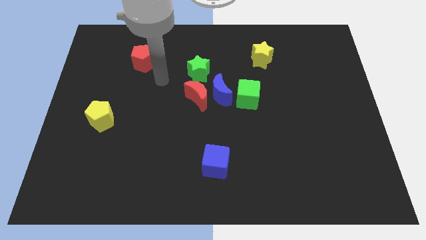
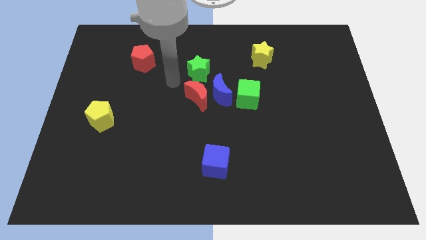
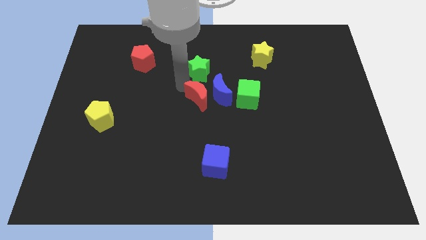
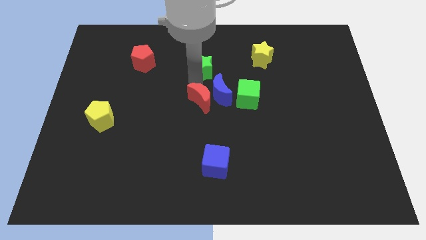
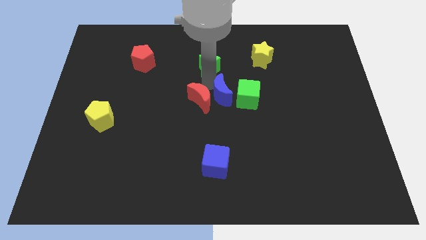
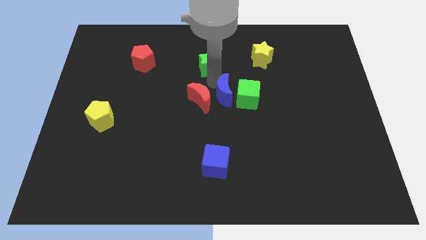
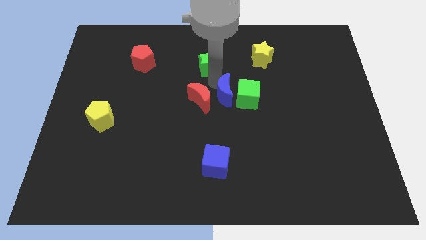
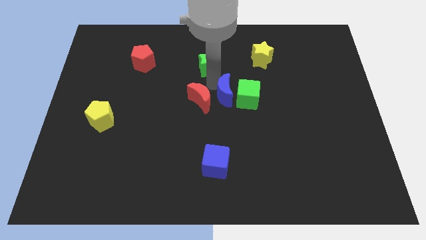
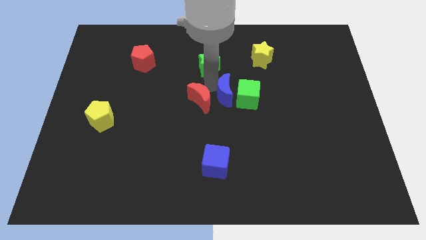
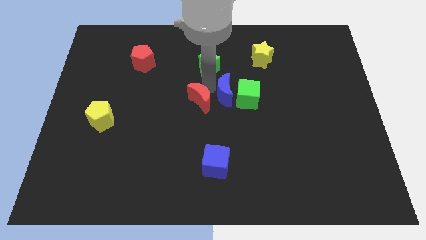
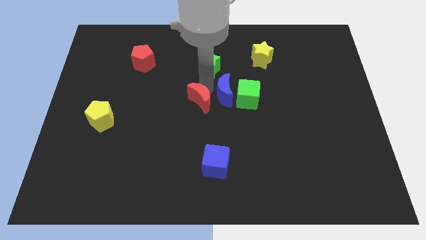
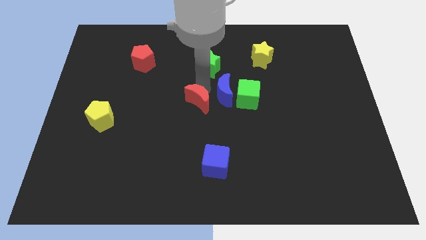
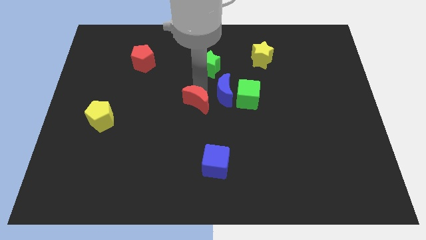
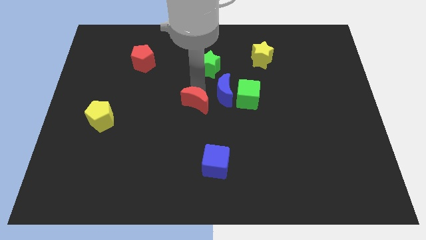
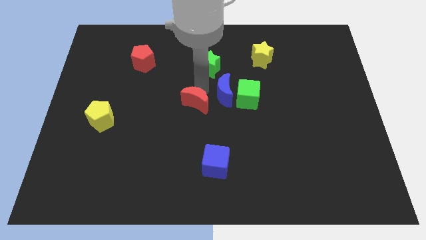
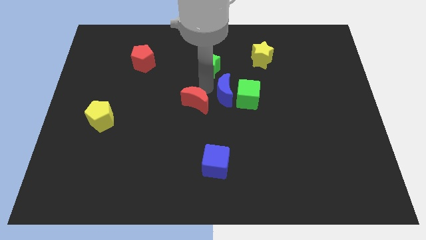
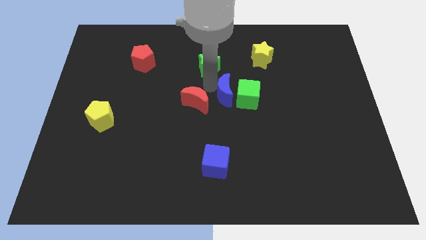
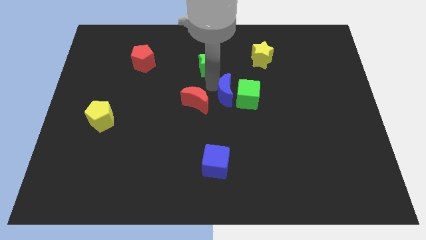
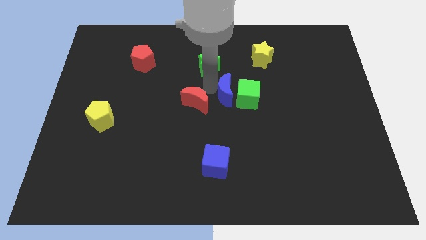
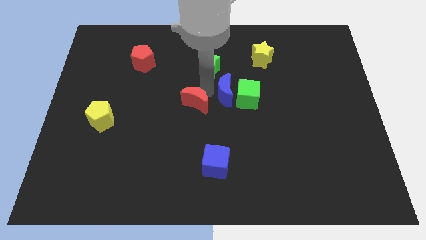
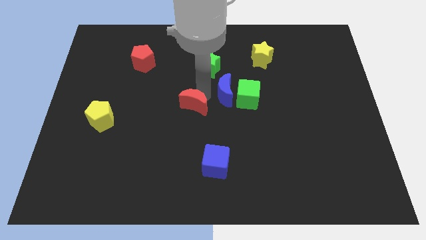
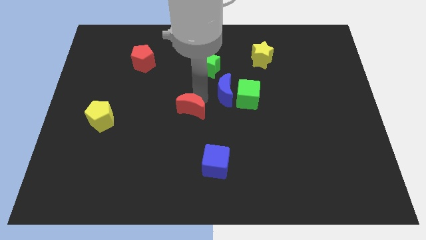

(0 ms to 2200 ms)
pull the red moon apart from the blue moon and green star

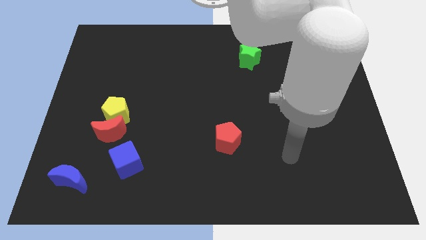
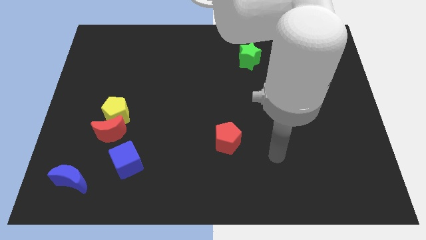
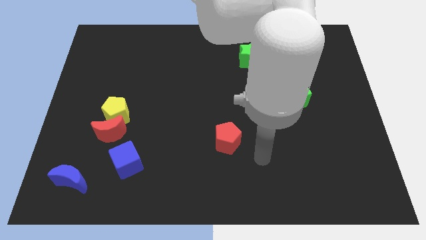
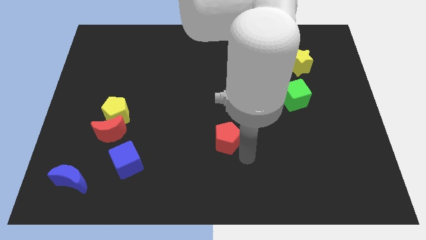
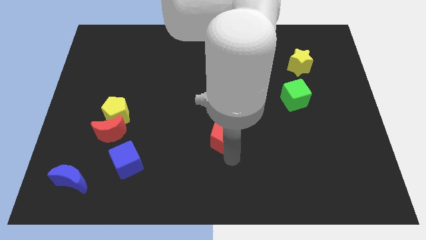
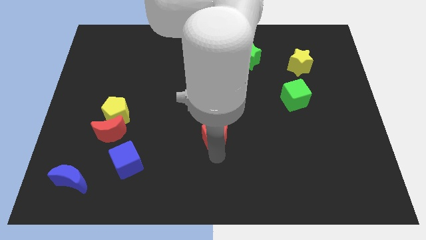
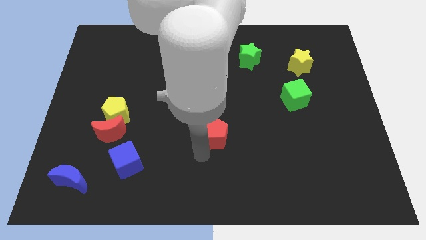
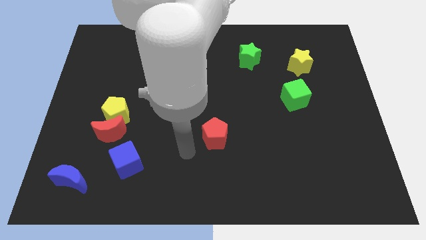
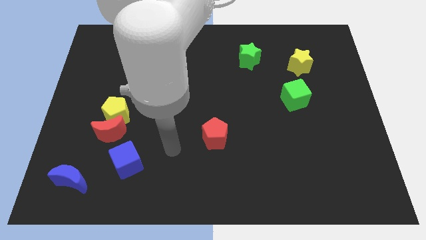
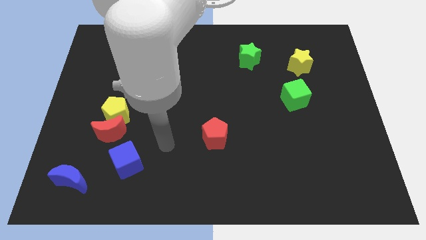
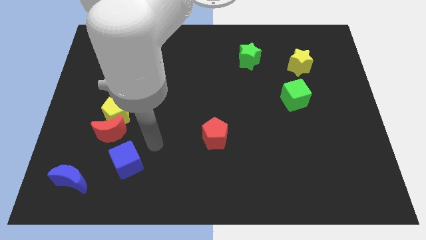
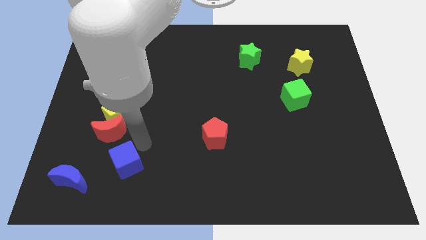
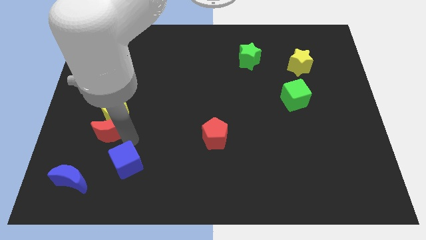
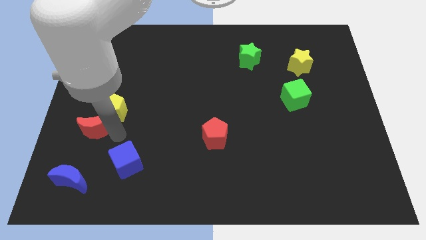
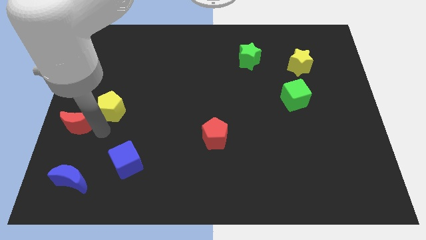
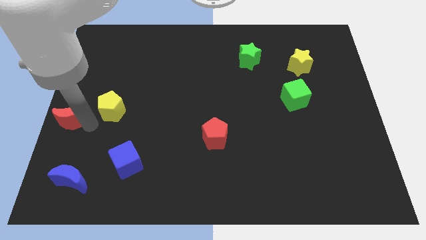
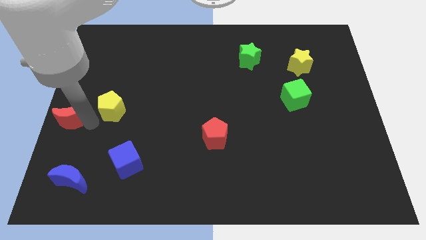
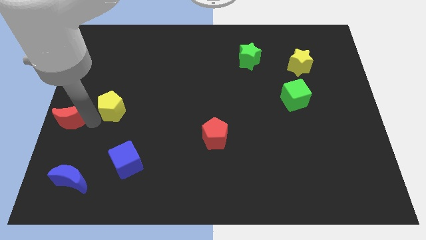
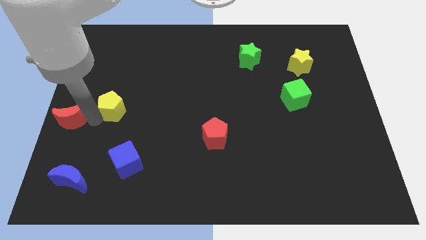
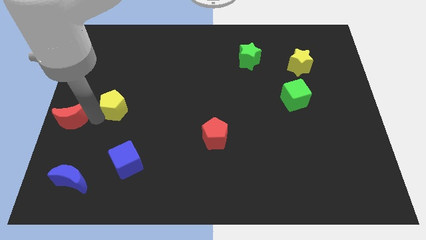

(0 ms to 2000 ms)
move the yellow pentagon away from the red moon

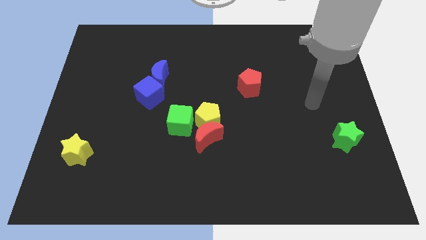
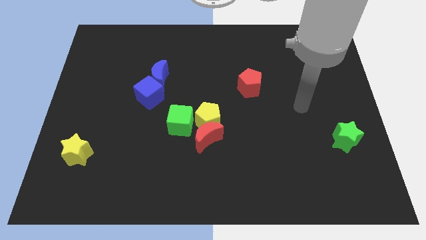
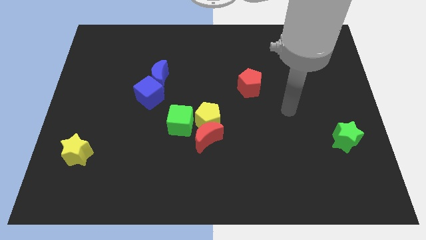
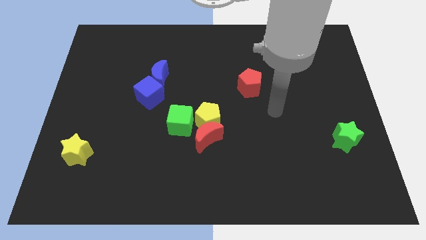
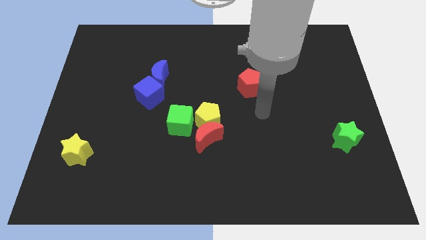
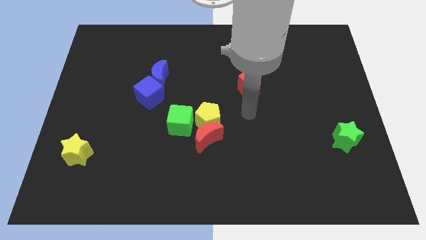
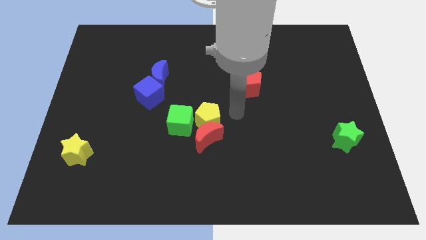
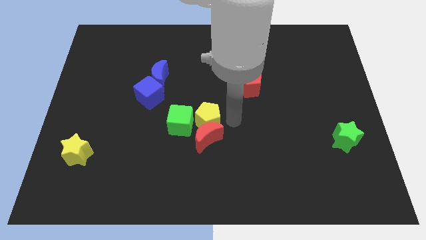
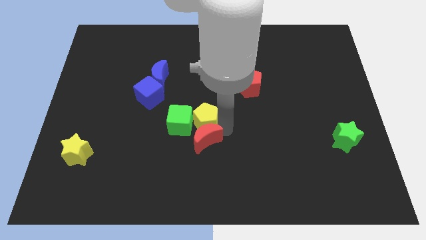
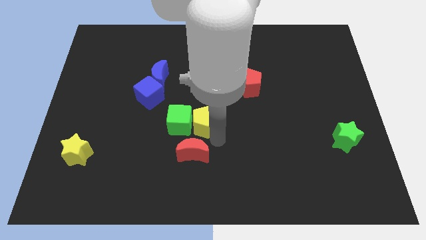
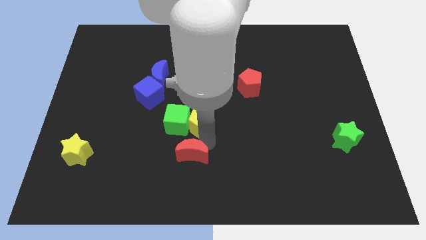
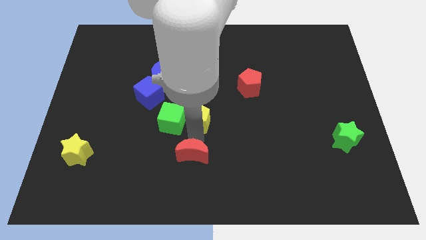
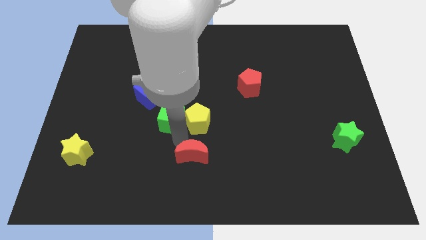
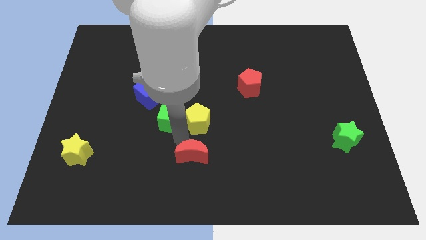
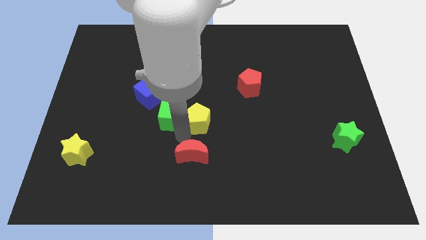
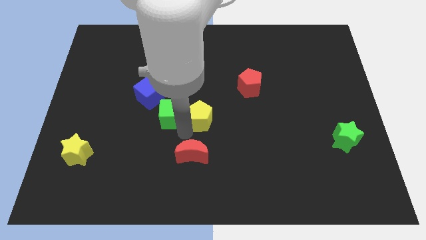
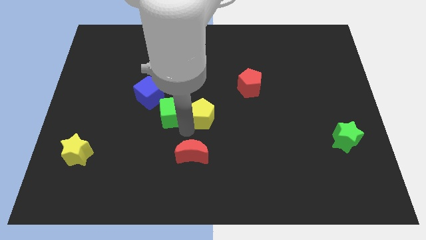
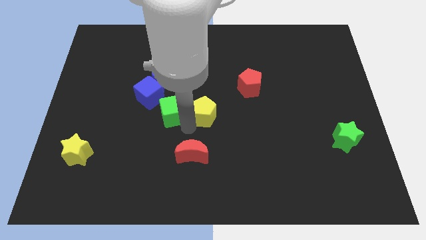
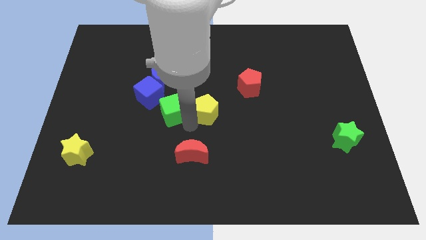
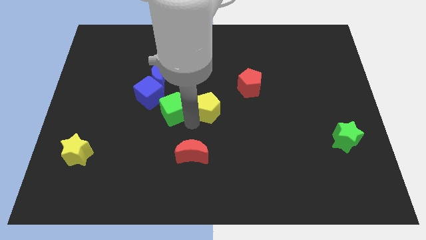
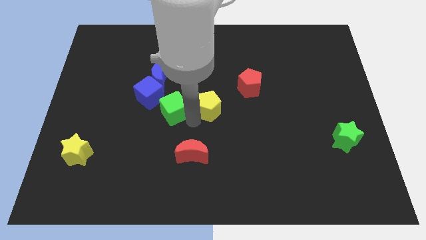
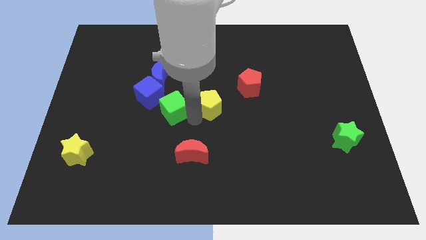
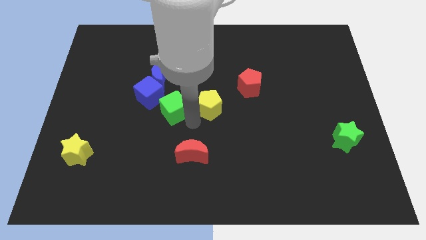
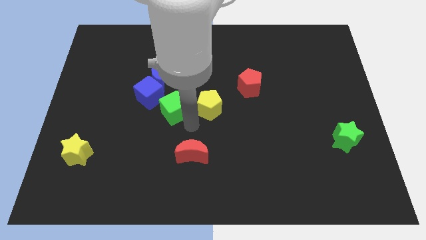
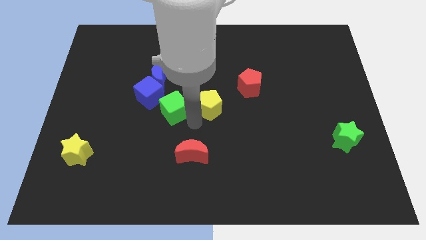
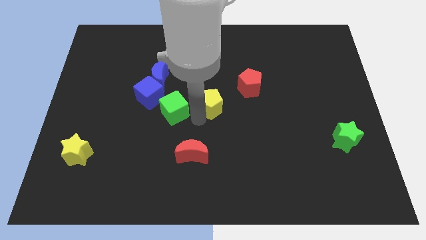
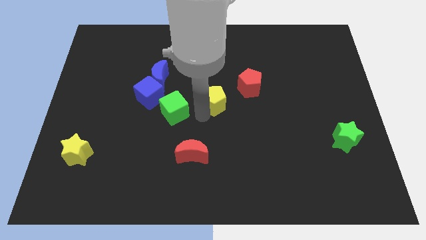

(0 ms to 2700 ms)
pull the yellow pentagon apart from the red moon and green cube

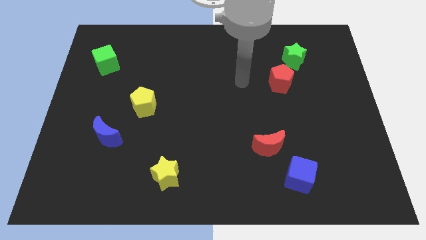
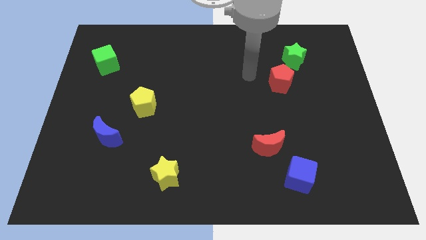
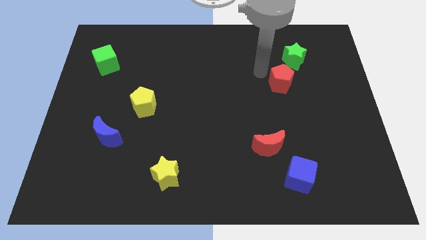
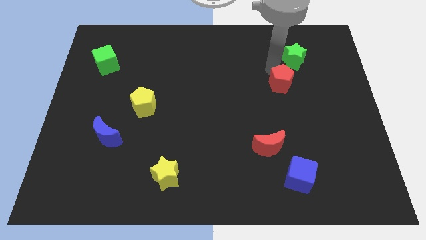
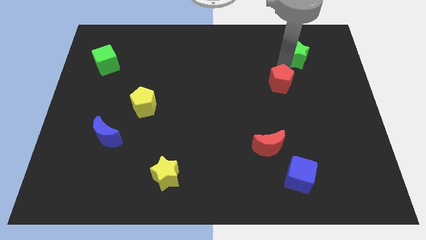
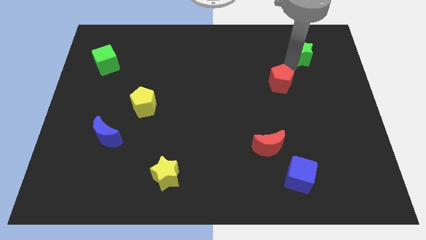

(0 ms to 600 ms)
separate the red pentagon from the green star

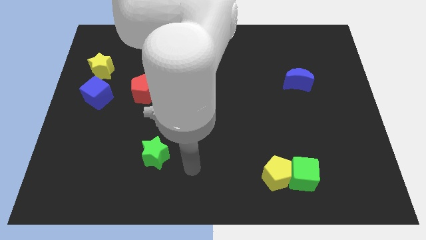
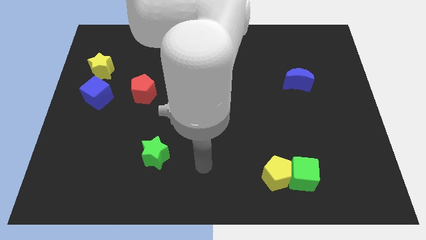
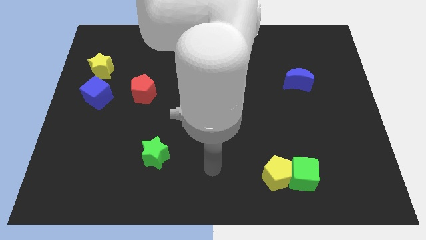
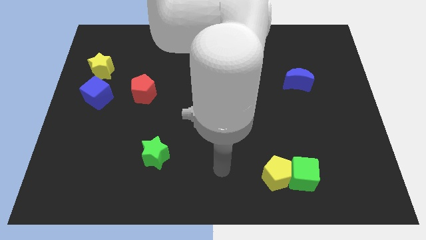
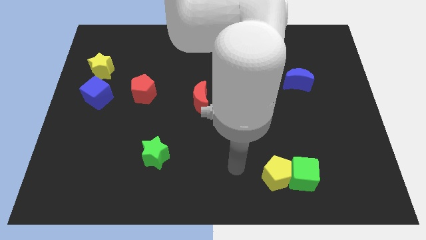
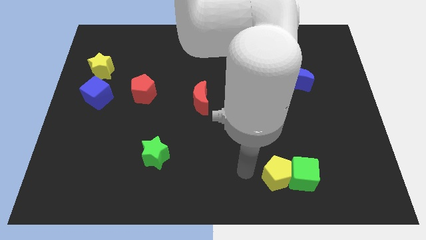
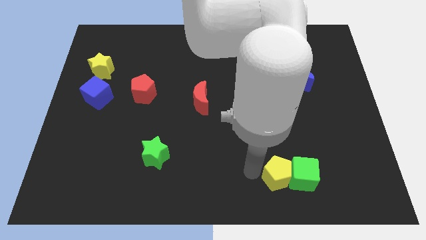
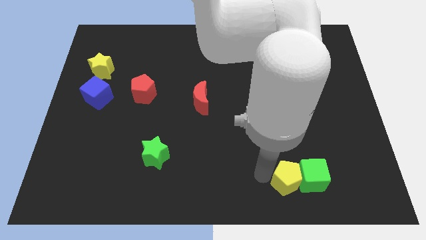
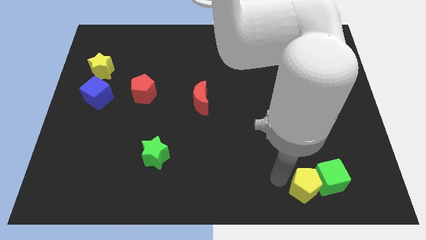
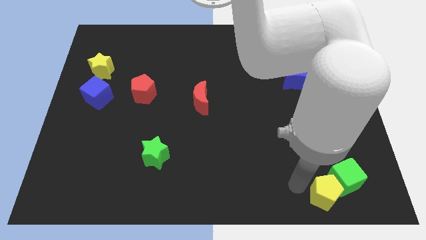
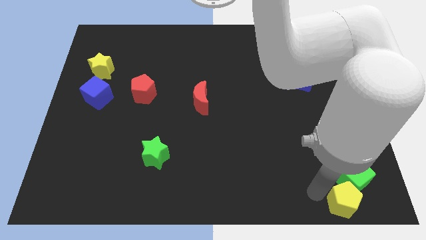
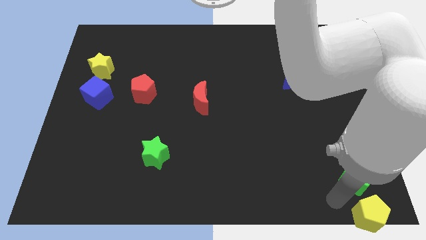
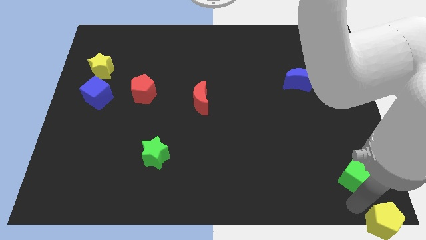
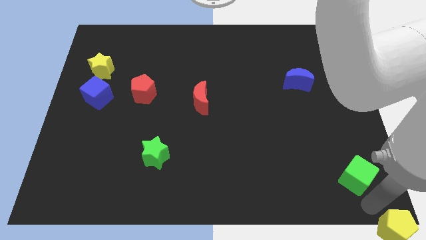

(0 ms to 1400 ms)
separate the green cube from the yellow pentagon

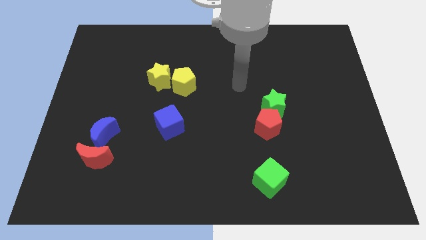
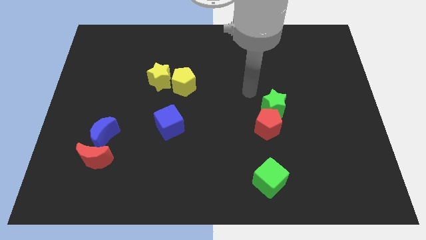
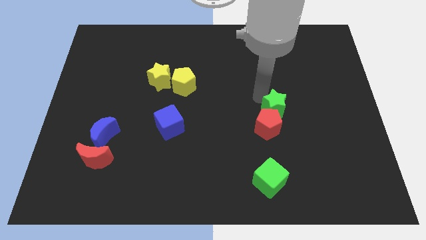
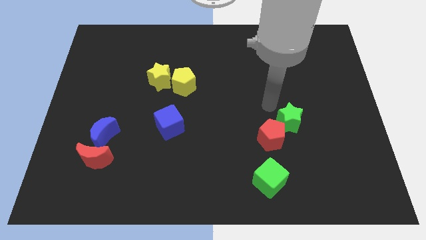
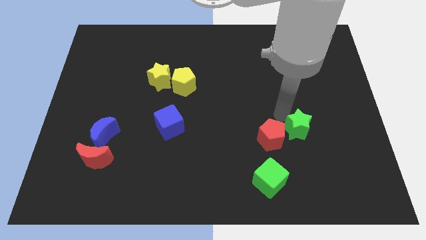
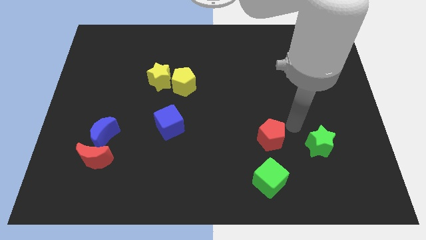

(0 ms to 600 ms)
move the red pentagon away from the green star
